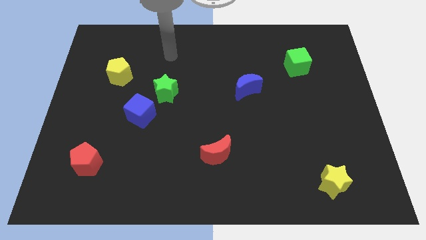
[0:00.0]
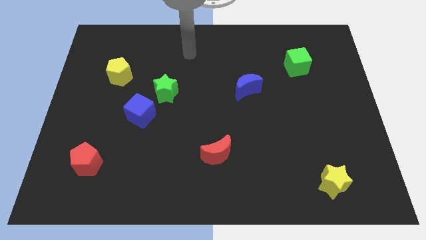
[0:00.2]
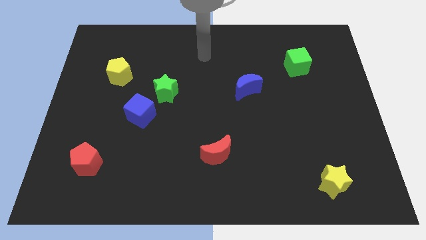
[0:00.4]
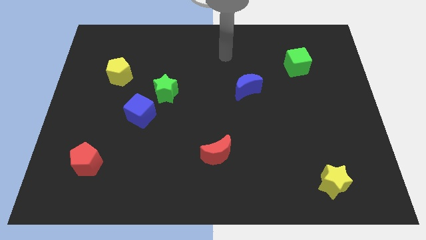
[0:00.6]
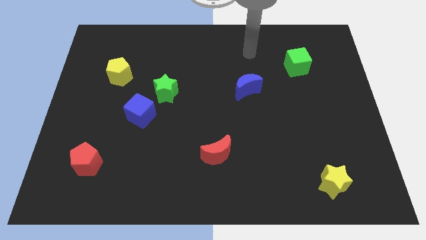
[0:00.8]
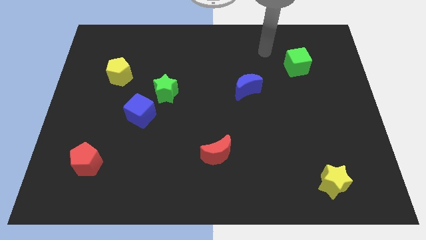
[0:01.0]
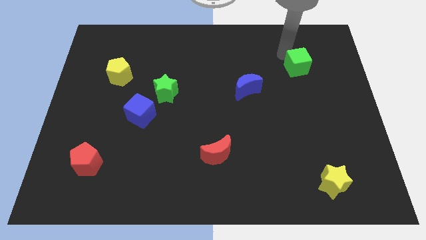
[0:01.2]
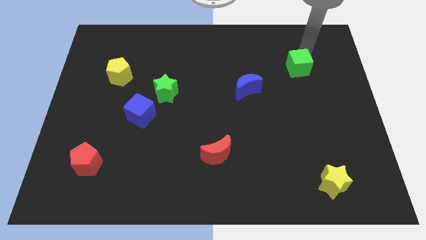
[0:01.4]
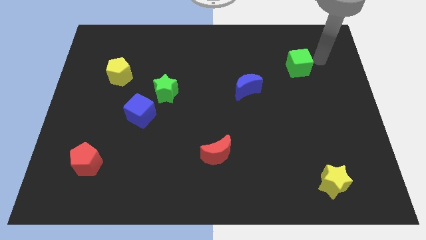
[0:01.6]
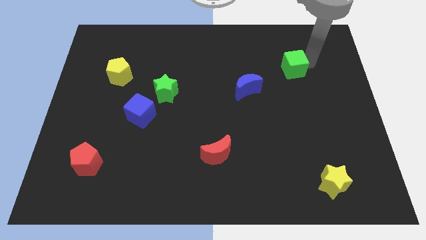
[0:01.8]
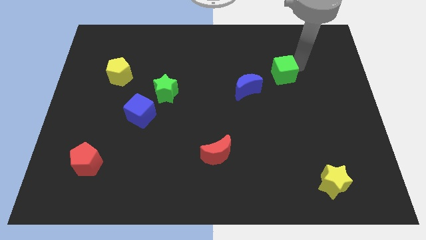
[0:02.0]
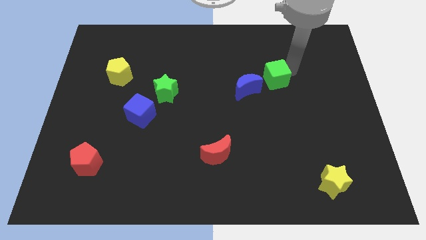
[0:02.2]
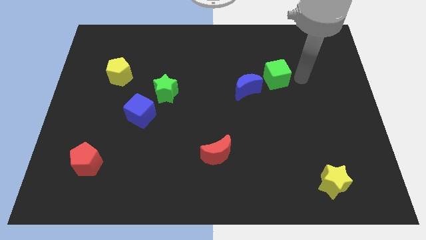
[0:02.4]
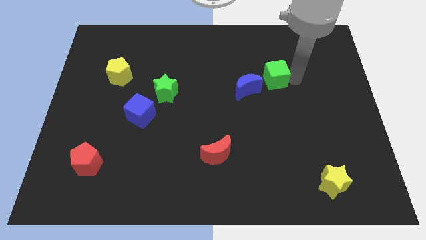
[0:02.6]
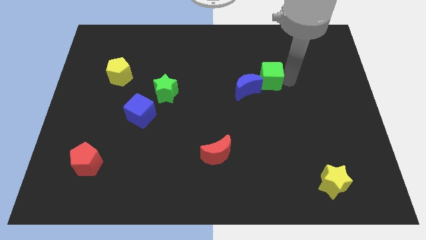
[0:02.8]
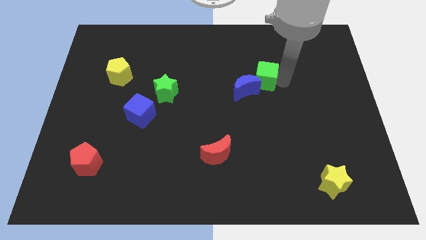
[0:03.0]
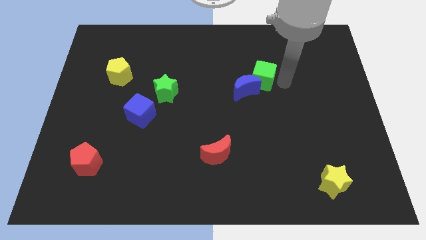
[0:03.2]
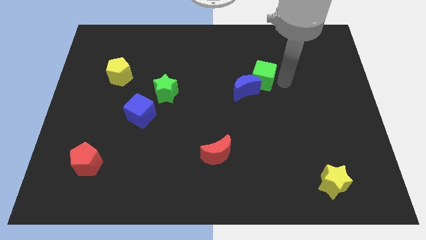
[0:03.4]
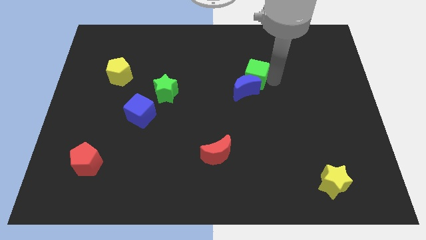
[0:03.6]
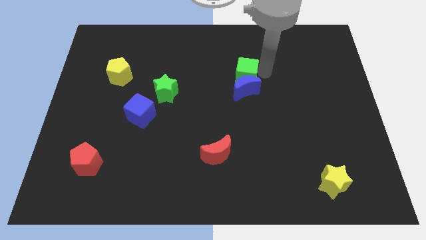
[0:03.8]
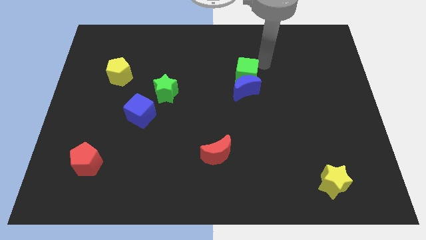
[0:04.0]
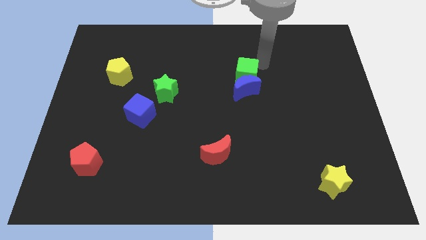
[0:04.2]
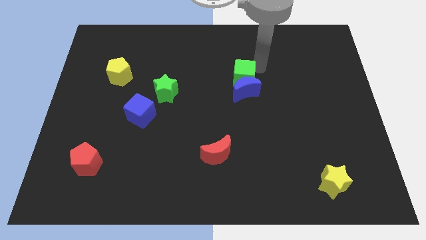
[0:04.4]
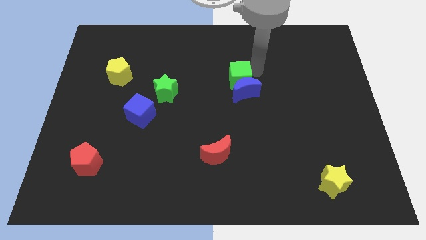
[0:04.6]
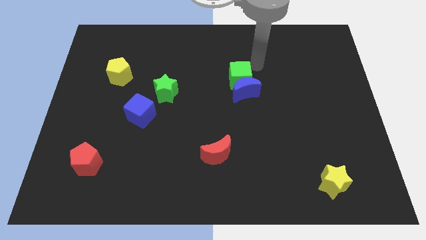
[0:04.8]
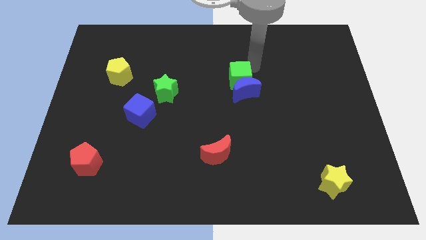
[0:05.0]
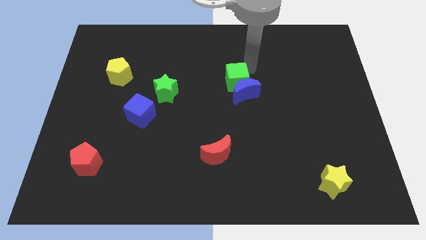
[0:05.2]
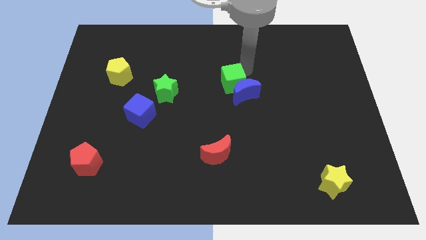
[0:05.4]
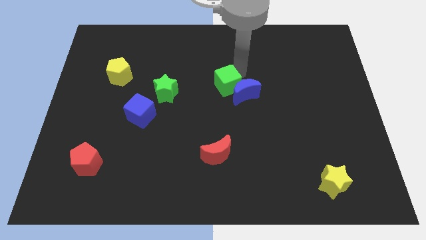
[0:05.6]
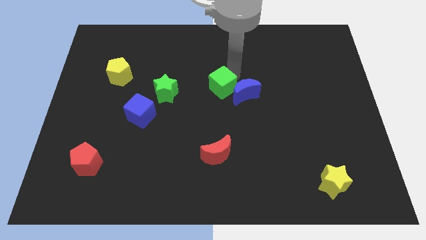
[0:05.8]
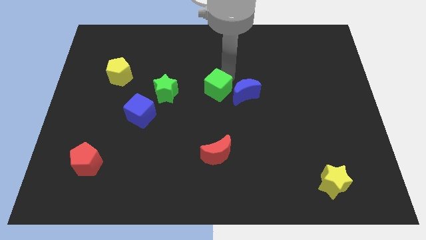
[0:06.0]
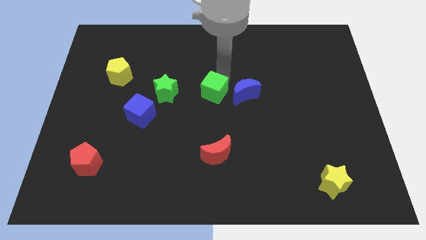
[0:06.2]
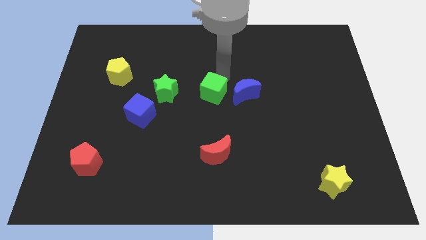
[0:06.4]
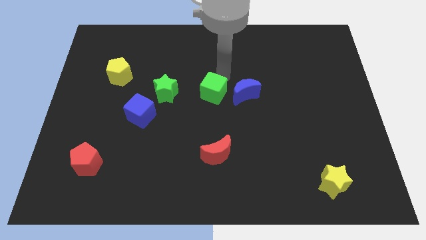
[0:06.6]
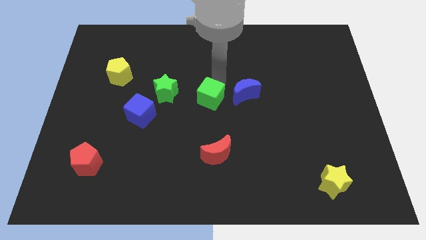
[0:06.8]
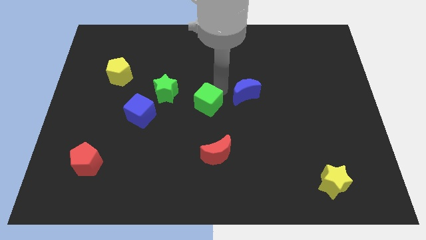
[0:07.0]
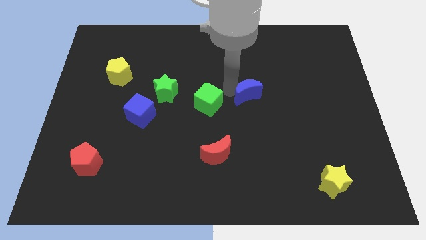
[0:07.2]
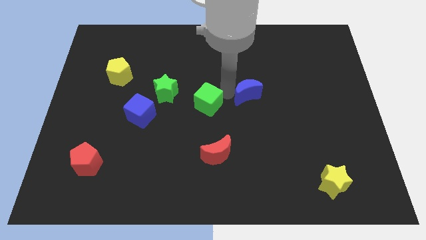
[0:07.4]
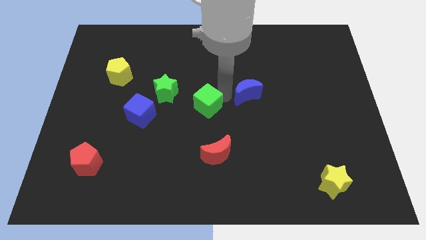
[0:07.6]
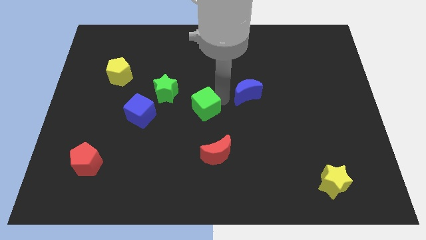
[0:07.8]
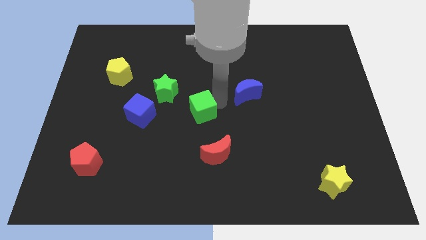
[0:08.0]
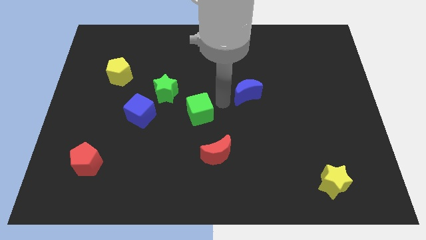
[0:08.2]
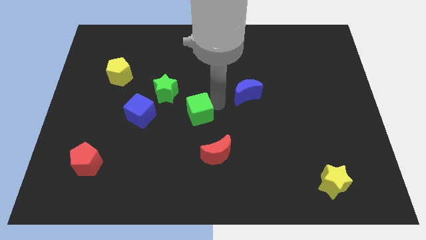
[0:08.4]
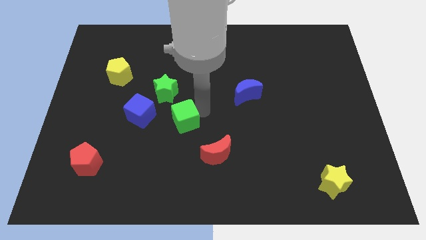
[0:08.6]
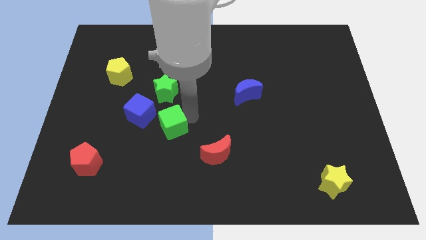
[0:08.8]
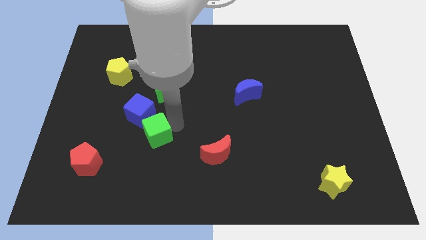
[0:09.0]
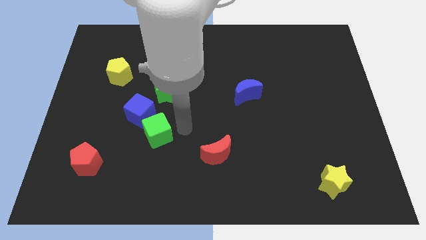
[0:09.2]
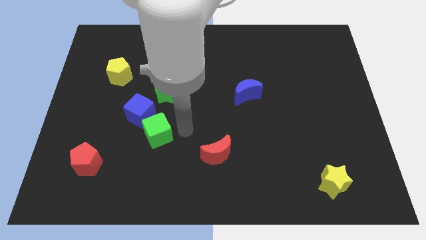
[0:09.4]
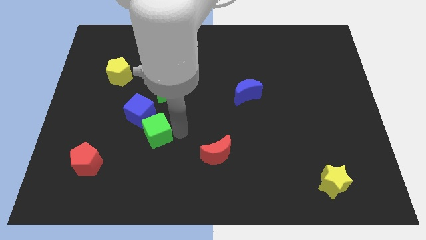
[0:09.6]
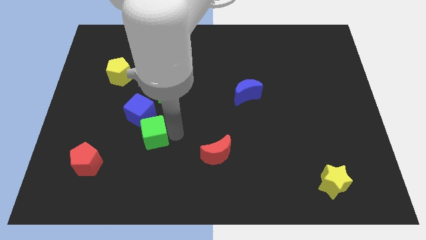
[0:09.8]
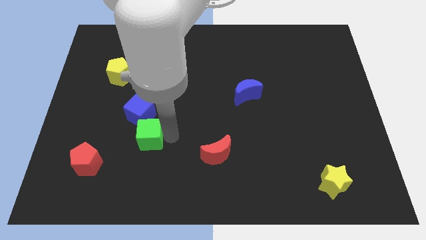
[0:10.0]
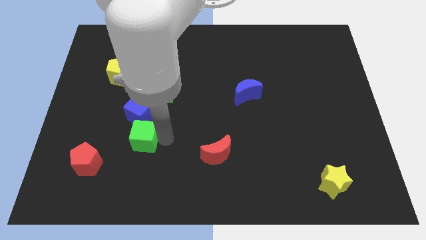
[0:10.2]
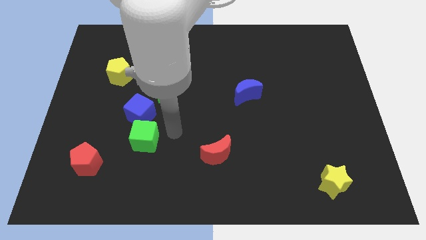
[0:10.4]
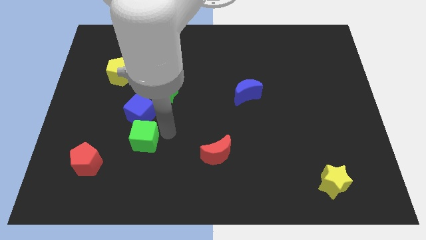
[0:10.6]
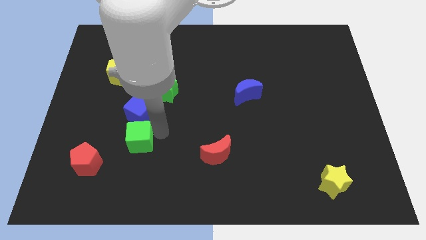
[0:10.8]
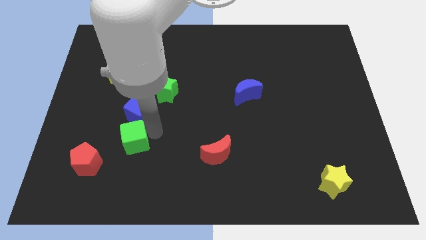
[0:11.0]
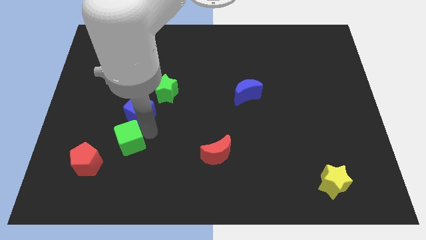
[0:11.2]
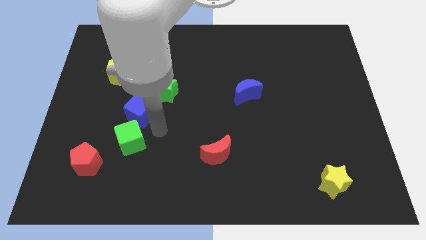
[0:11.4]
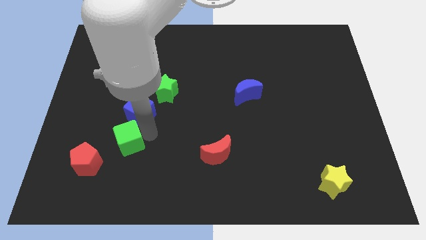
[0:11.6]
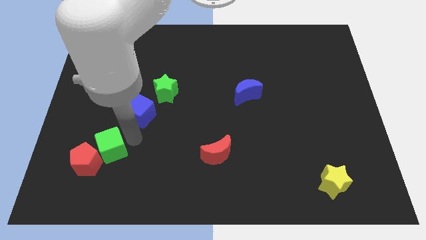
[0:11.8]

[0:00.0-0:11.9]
move the green cube towards the red pentagon
